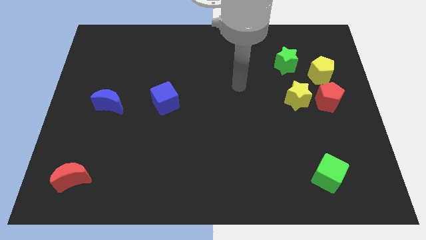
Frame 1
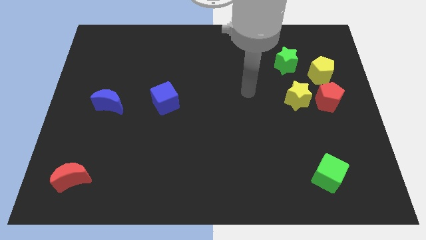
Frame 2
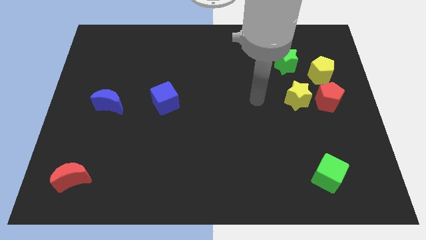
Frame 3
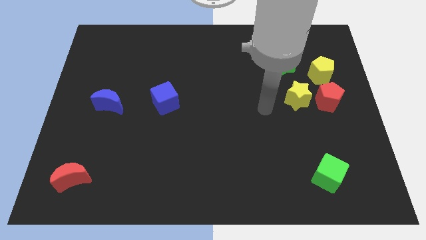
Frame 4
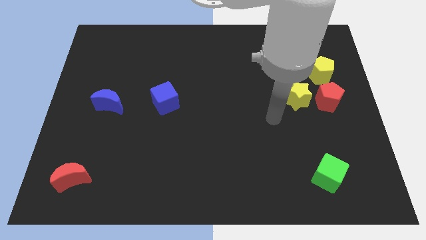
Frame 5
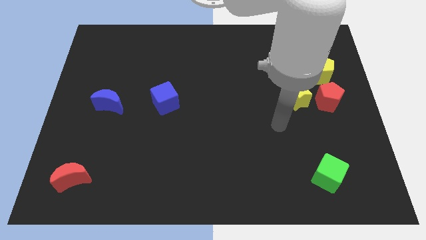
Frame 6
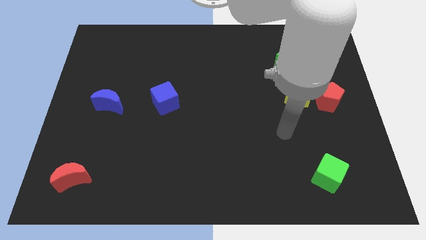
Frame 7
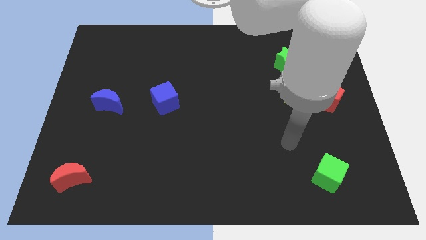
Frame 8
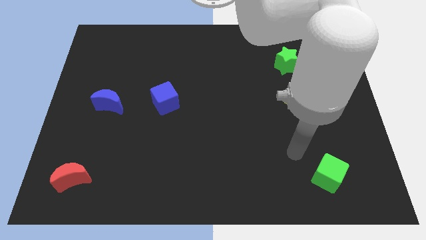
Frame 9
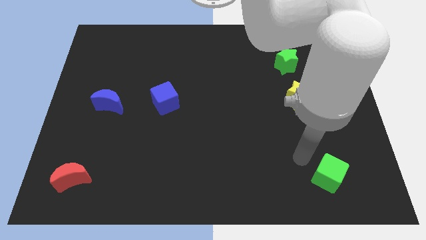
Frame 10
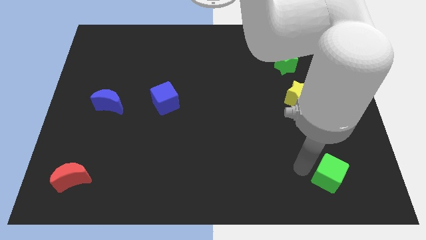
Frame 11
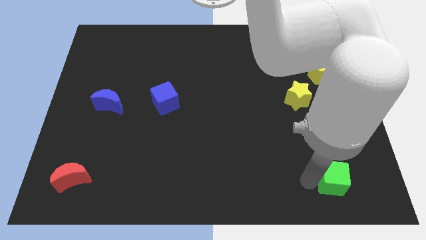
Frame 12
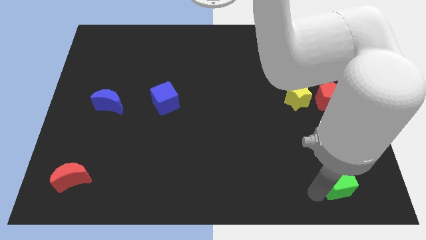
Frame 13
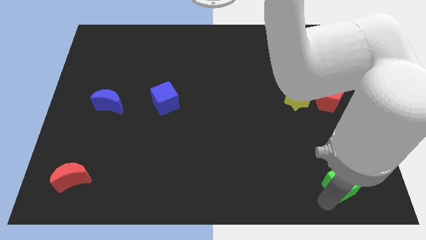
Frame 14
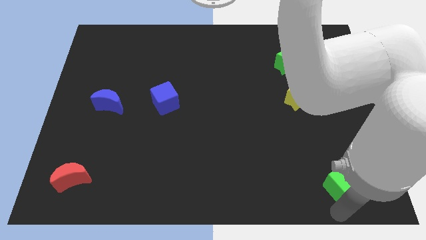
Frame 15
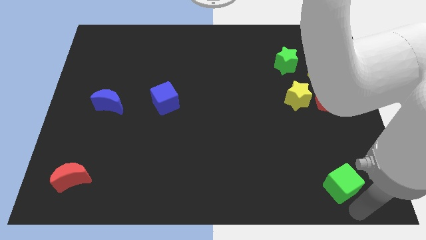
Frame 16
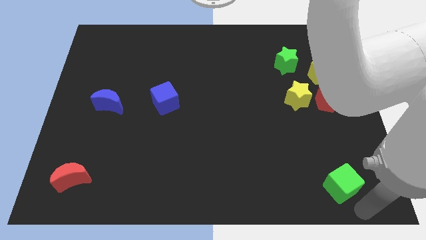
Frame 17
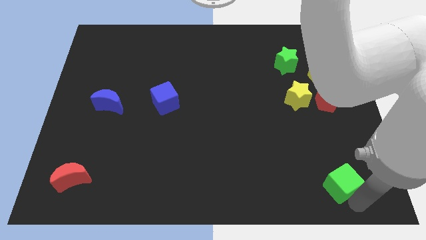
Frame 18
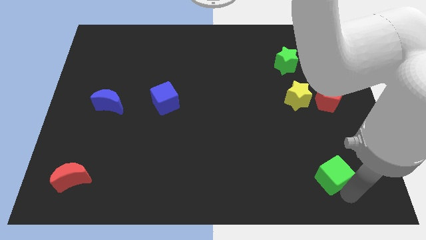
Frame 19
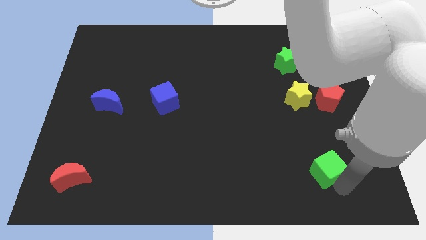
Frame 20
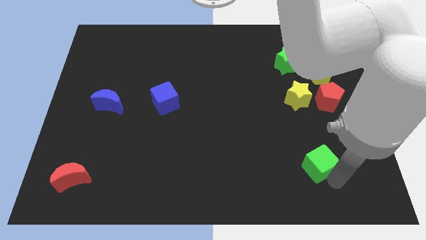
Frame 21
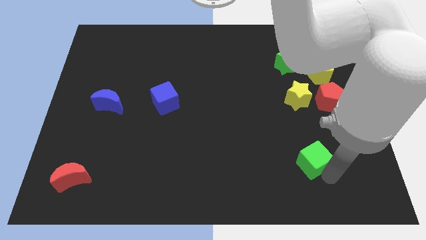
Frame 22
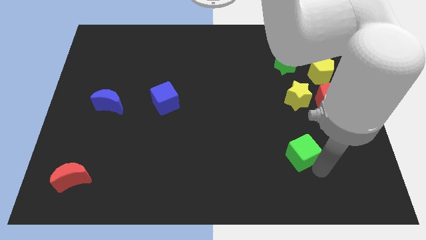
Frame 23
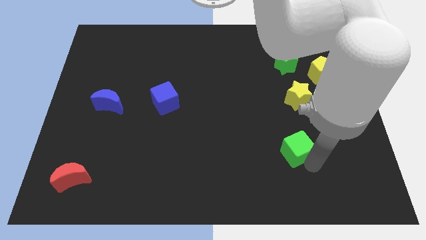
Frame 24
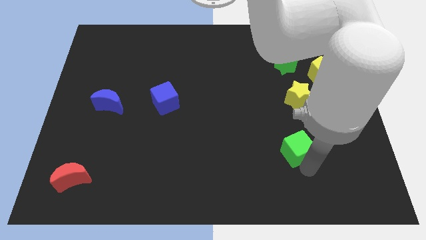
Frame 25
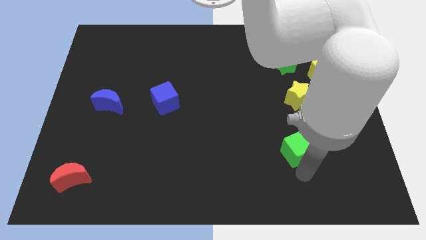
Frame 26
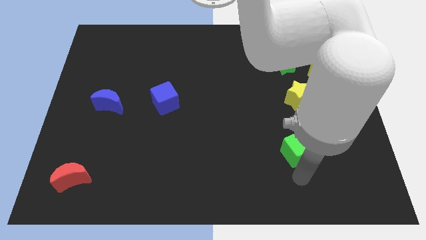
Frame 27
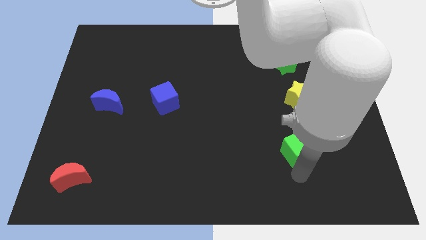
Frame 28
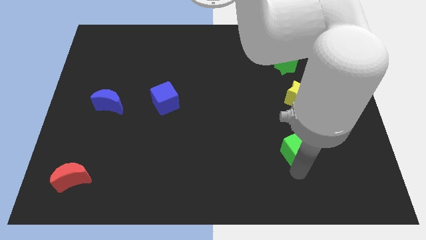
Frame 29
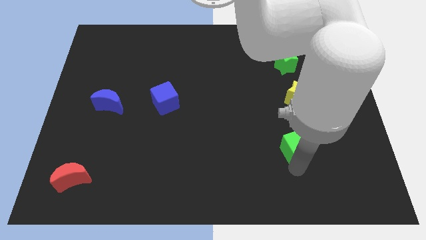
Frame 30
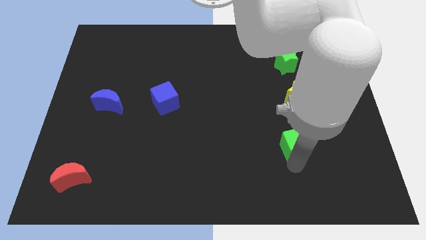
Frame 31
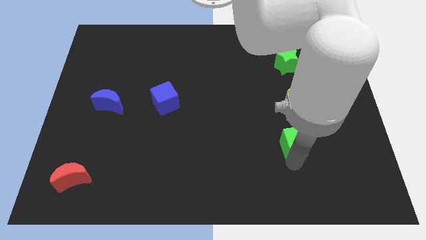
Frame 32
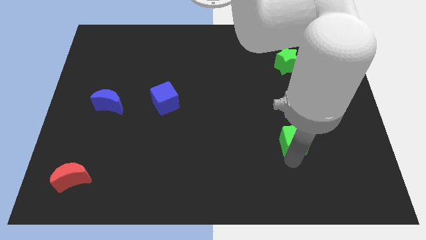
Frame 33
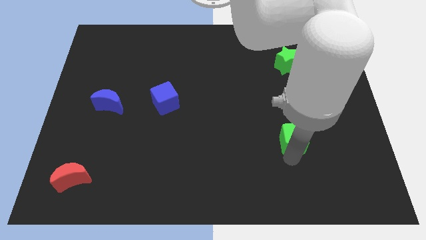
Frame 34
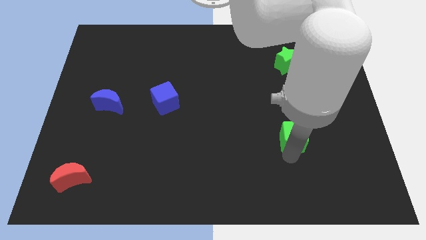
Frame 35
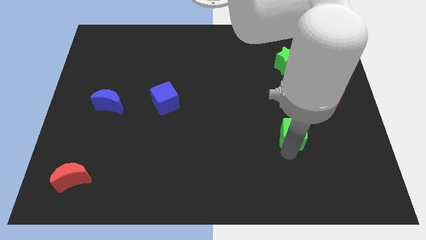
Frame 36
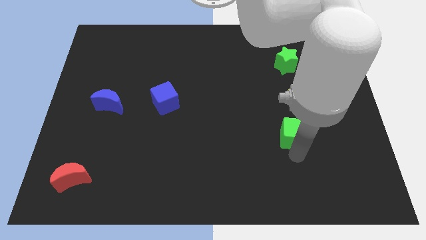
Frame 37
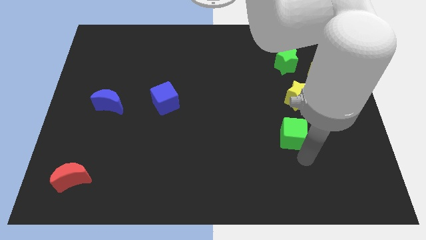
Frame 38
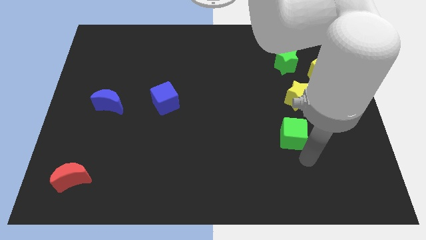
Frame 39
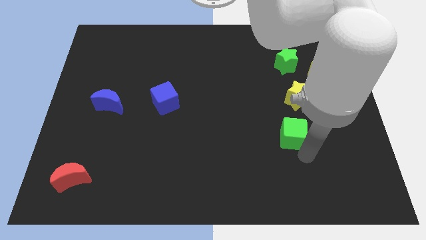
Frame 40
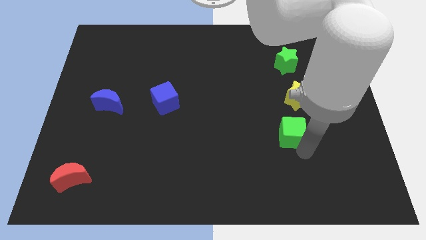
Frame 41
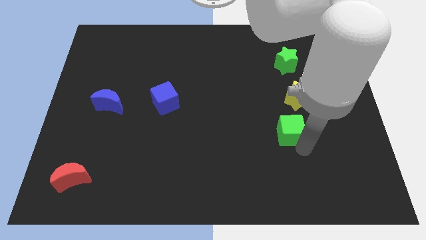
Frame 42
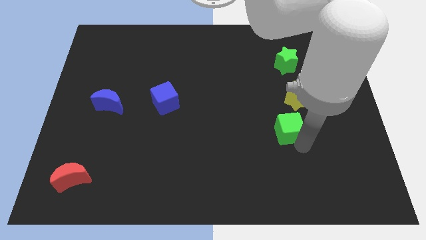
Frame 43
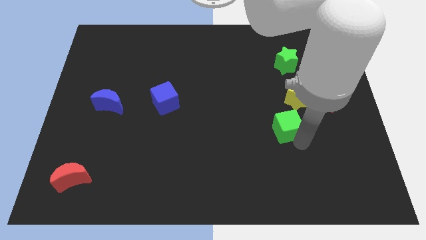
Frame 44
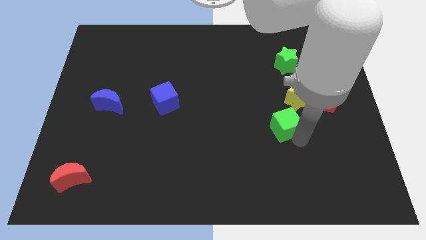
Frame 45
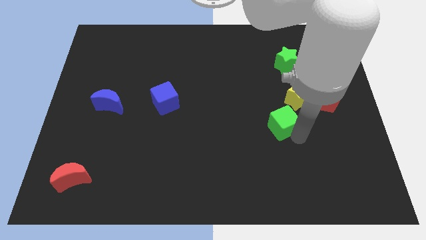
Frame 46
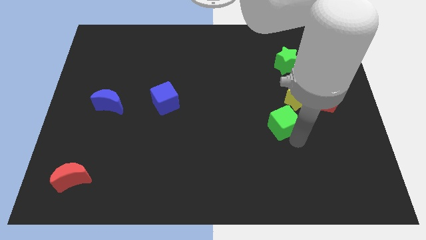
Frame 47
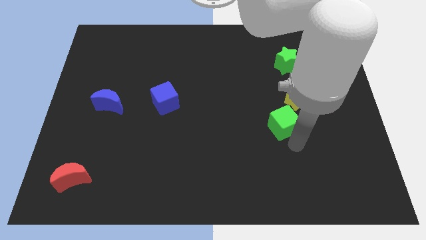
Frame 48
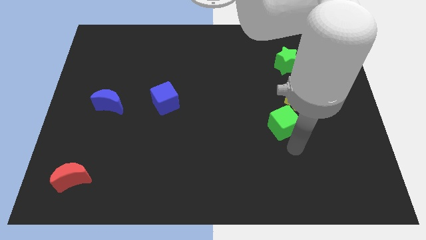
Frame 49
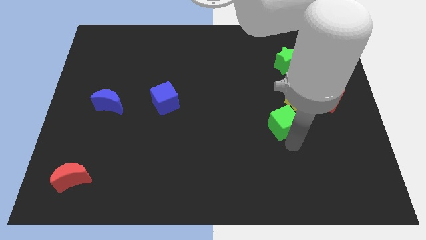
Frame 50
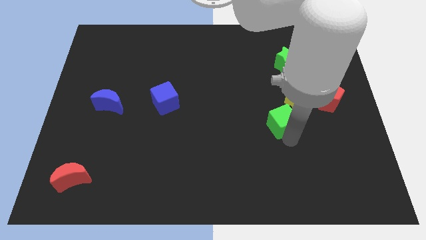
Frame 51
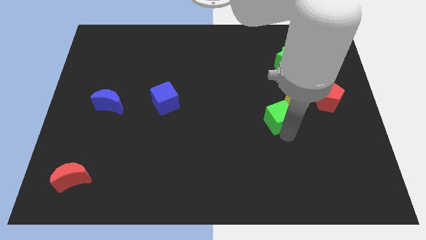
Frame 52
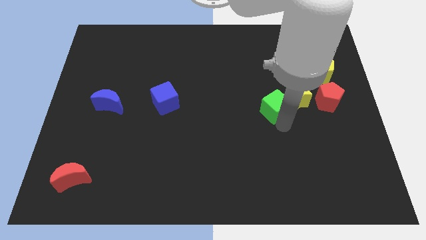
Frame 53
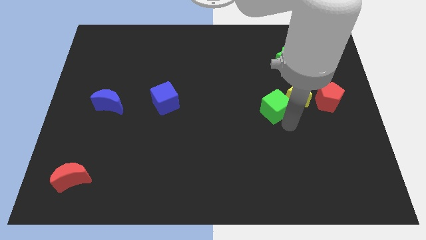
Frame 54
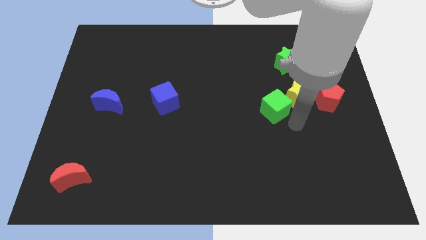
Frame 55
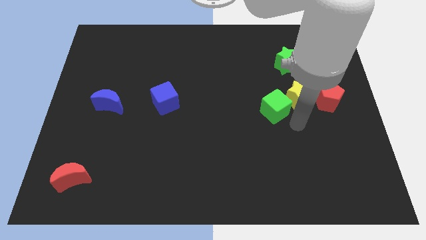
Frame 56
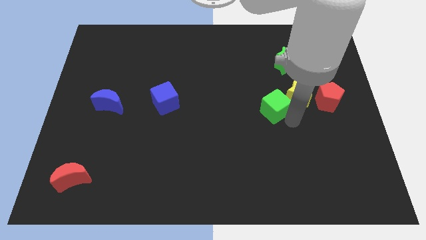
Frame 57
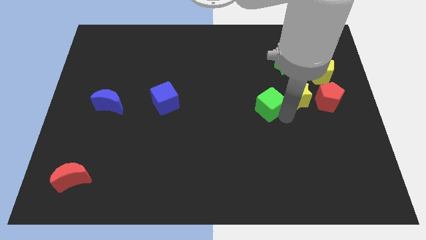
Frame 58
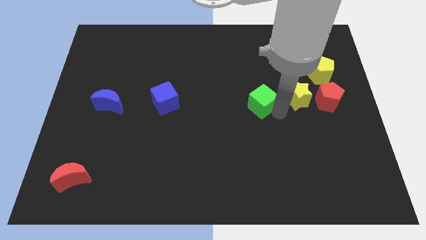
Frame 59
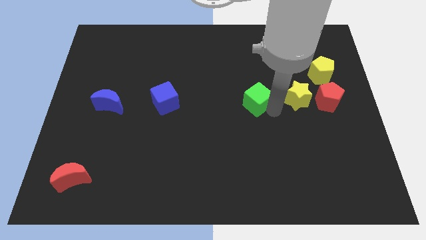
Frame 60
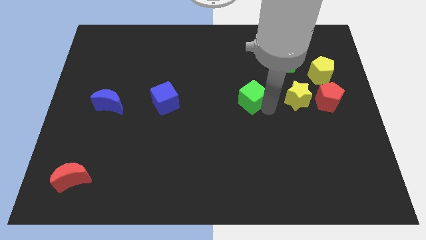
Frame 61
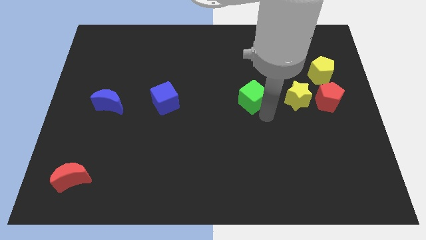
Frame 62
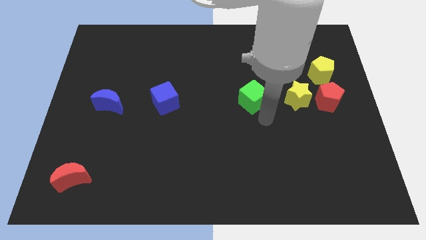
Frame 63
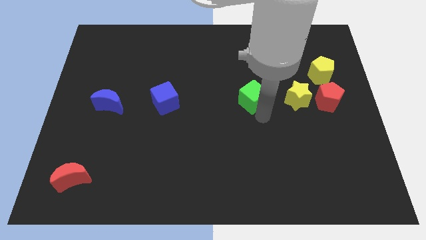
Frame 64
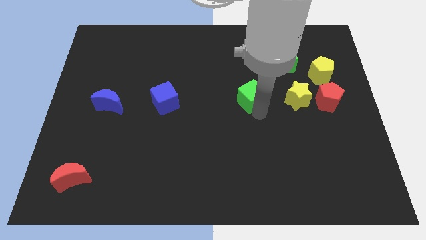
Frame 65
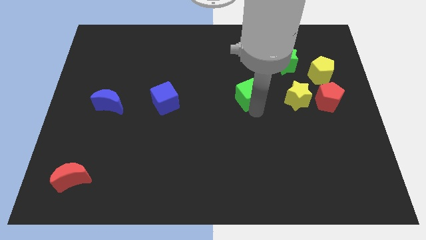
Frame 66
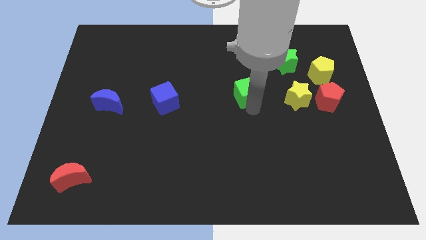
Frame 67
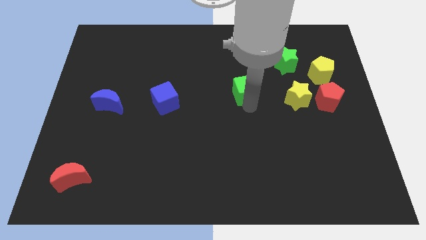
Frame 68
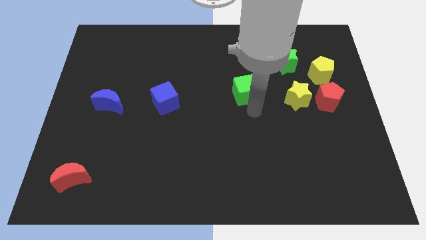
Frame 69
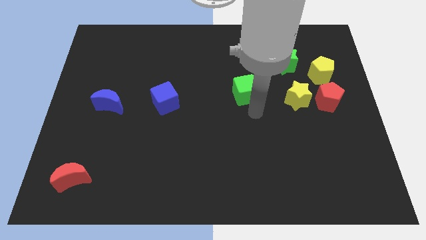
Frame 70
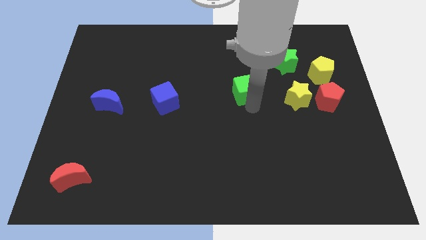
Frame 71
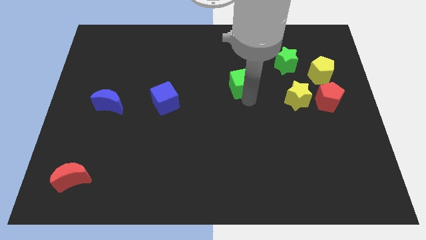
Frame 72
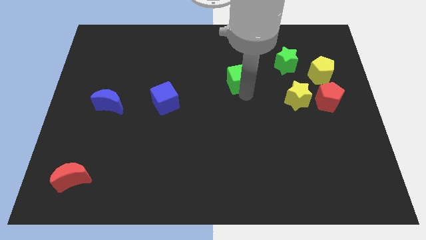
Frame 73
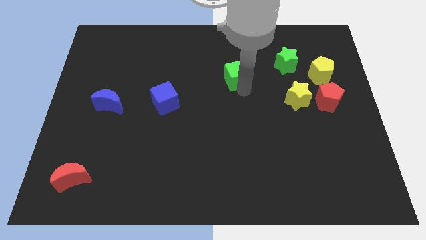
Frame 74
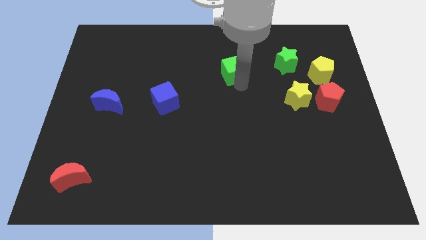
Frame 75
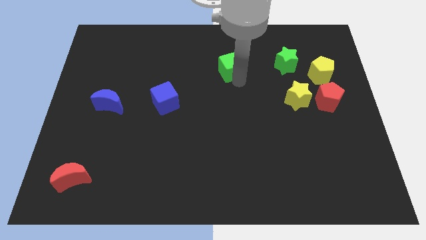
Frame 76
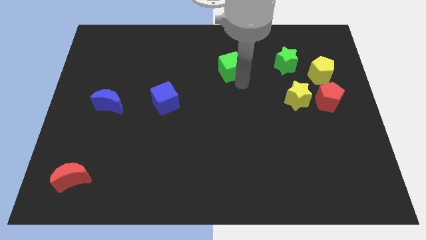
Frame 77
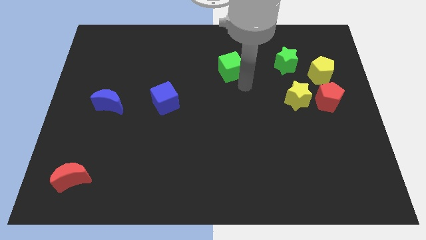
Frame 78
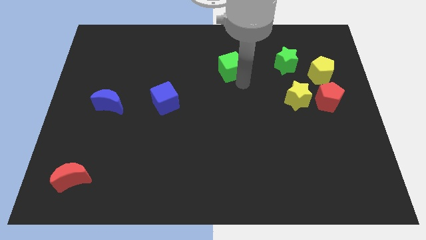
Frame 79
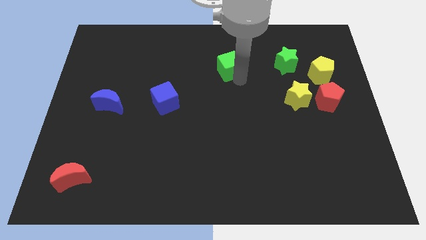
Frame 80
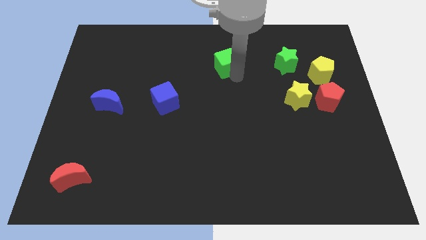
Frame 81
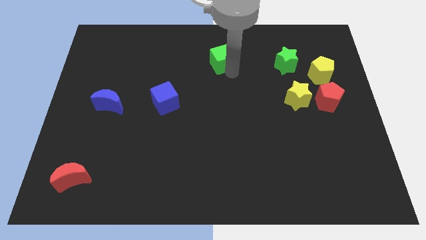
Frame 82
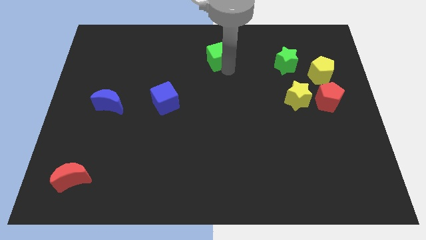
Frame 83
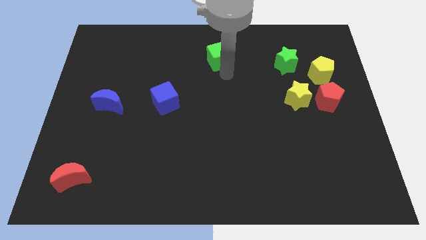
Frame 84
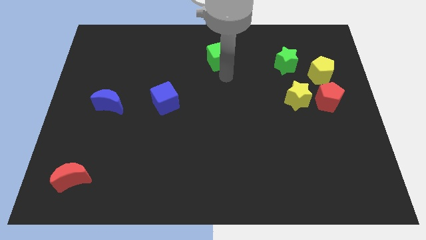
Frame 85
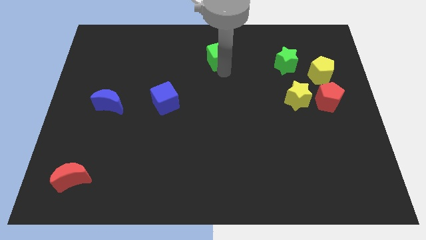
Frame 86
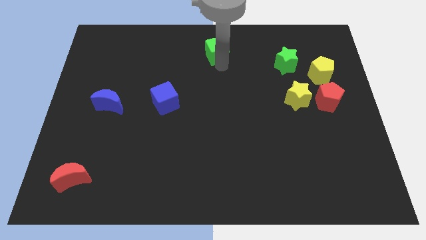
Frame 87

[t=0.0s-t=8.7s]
push the green cube to the top side
